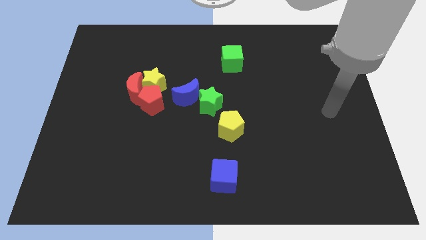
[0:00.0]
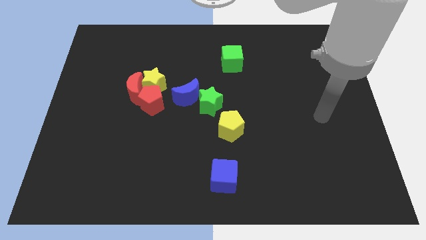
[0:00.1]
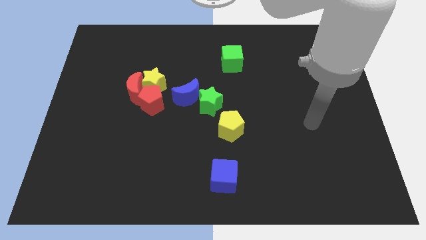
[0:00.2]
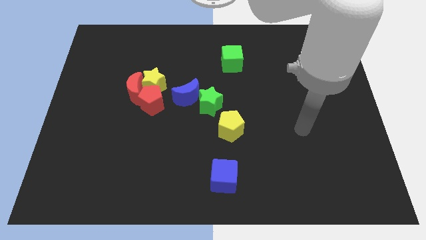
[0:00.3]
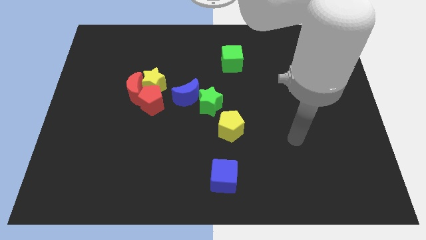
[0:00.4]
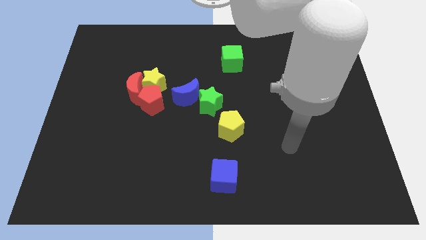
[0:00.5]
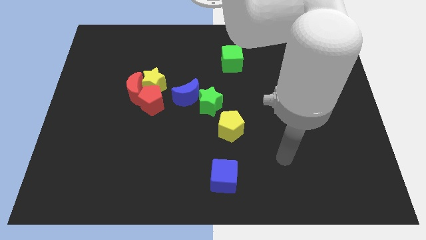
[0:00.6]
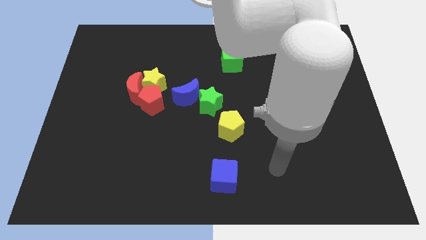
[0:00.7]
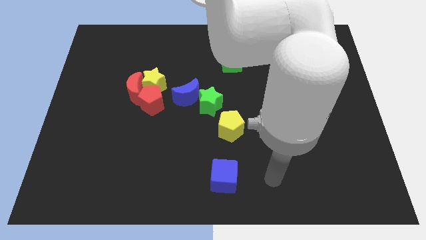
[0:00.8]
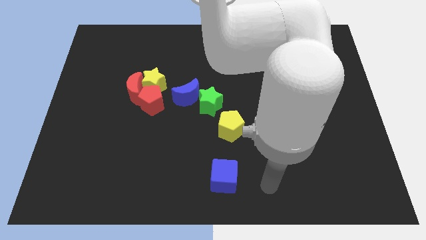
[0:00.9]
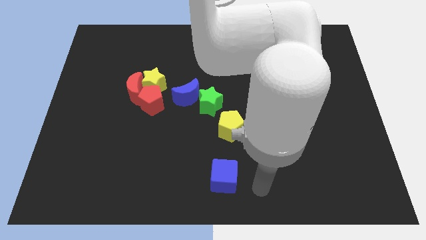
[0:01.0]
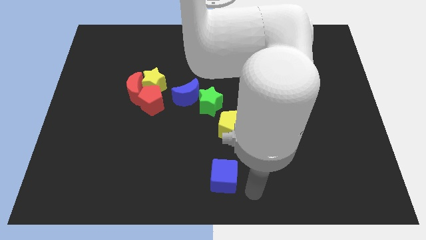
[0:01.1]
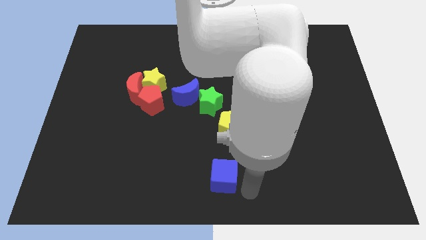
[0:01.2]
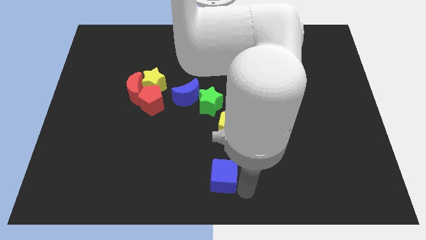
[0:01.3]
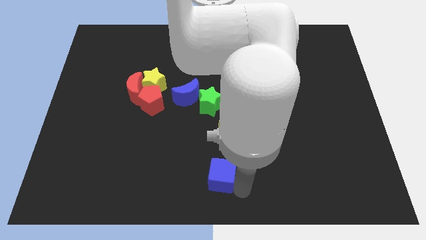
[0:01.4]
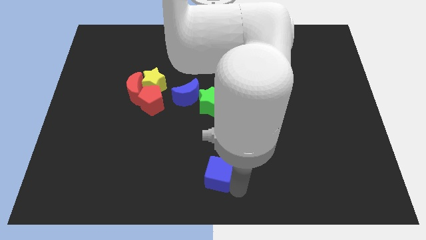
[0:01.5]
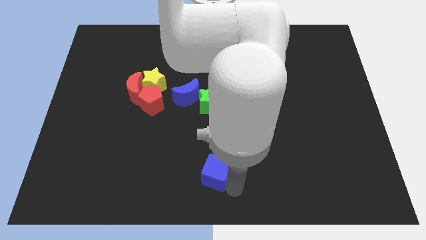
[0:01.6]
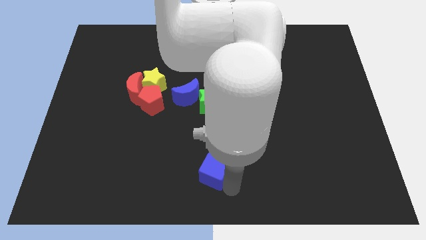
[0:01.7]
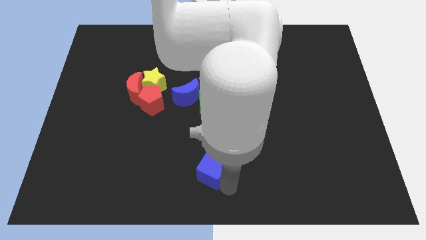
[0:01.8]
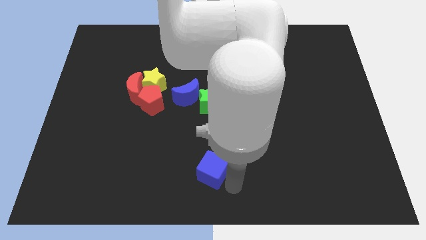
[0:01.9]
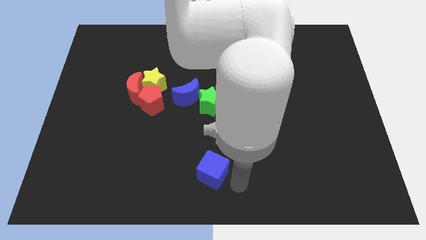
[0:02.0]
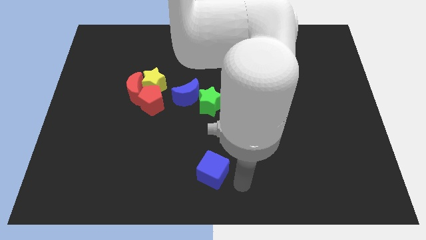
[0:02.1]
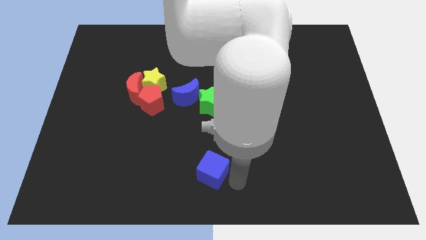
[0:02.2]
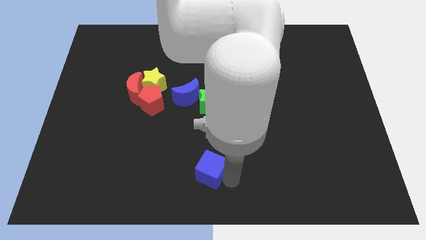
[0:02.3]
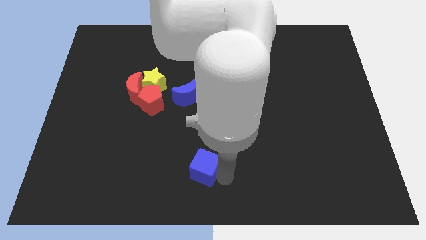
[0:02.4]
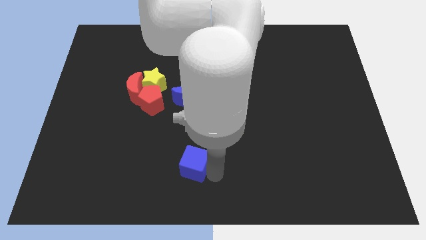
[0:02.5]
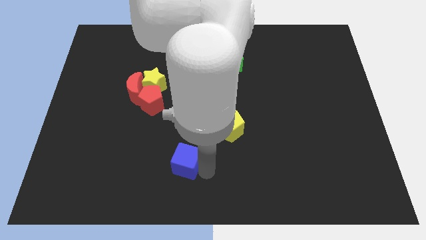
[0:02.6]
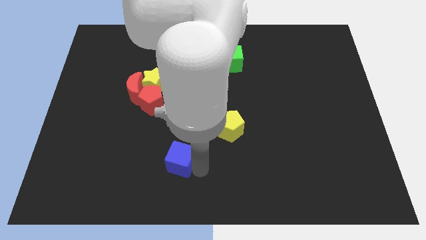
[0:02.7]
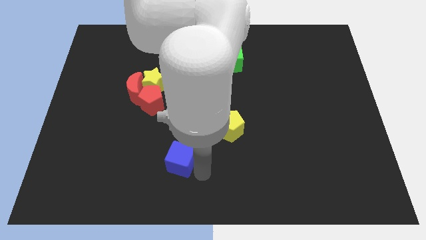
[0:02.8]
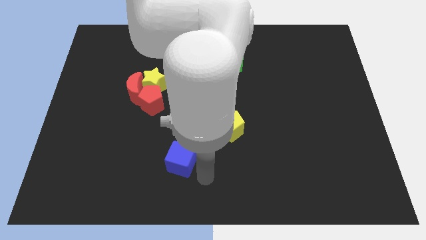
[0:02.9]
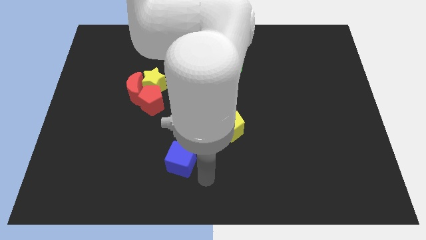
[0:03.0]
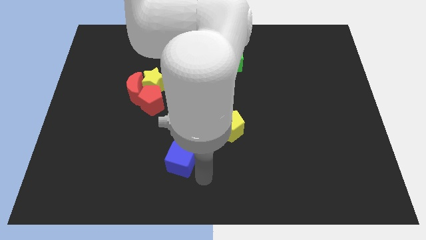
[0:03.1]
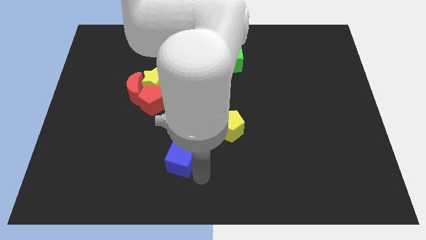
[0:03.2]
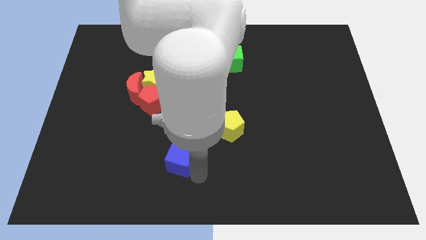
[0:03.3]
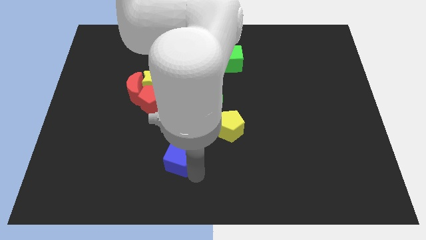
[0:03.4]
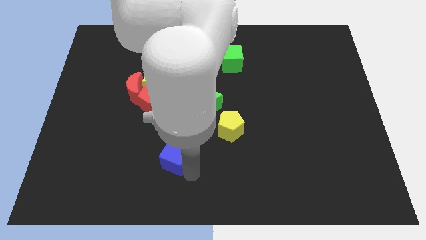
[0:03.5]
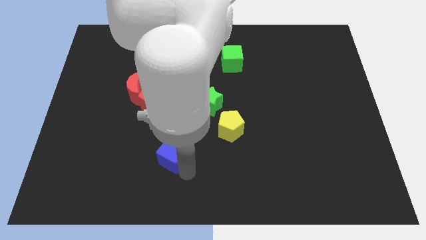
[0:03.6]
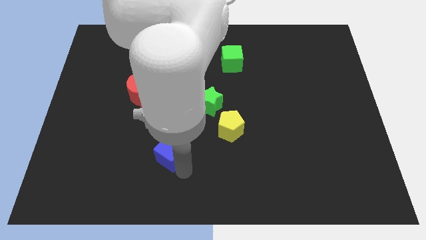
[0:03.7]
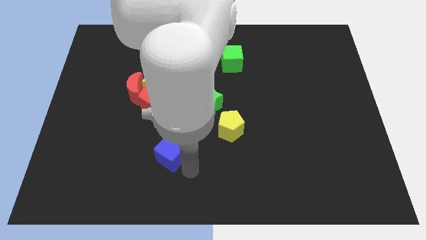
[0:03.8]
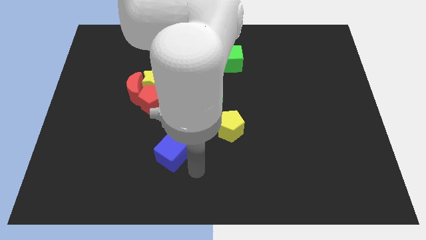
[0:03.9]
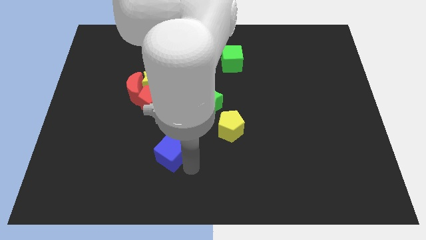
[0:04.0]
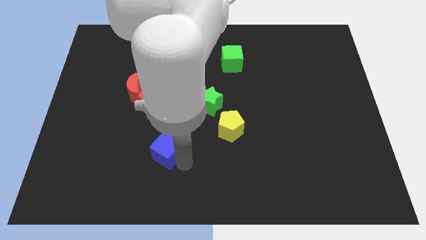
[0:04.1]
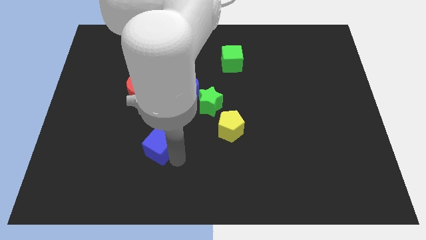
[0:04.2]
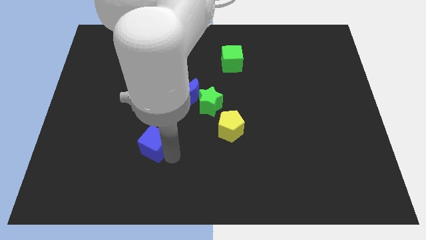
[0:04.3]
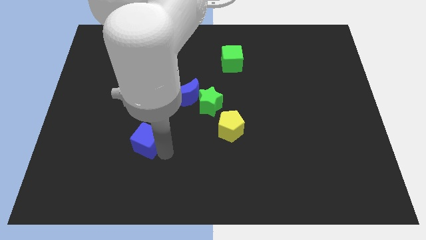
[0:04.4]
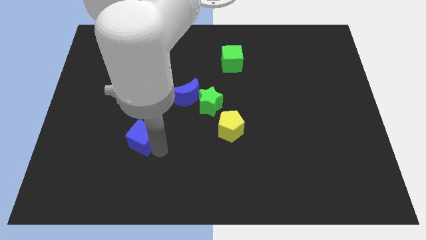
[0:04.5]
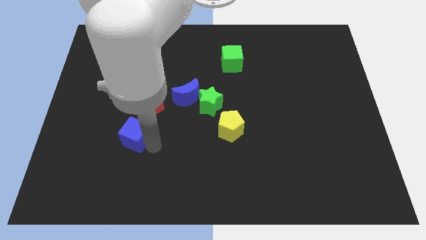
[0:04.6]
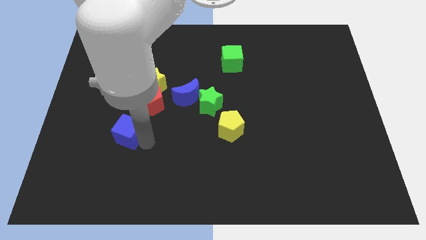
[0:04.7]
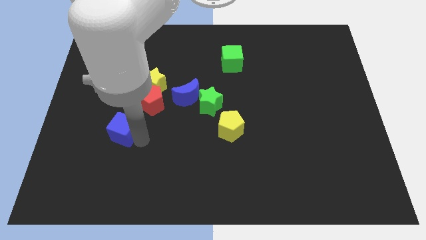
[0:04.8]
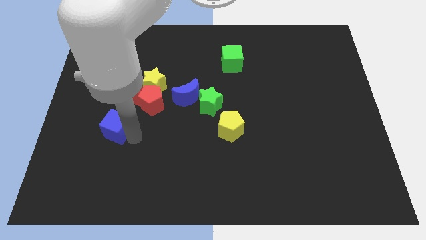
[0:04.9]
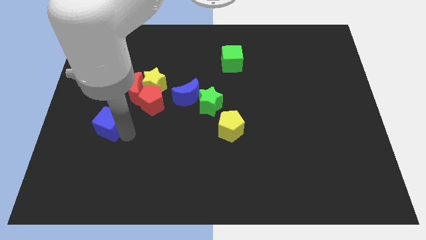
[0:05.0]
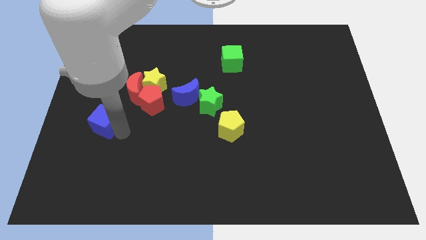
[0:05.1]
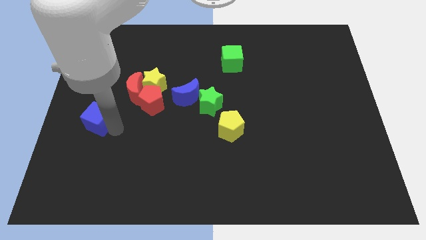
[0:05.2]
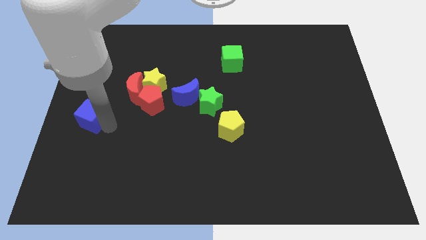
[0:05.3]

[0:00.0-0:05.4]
slide the blue cube to the left side of the board

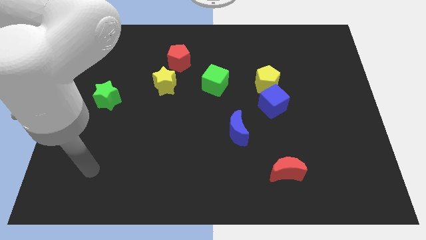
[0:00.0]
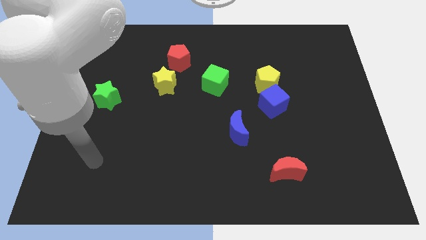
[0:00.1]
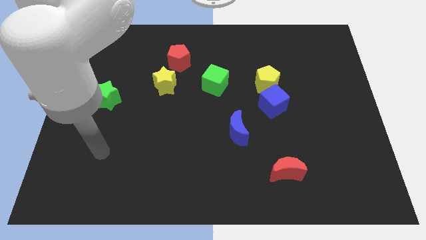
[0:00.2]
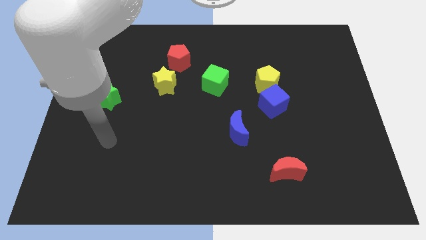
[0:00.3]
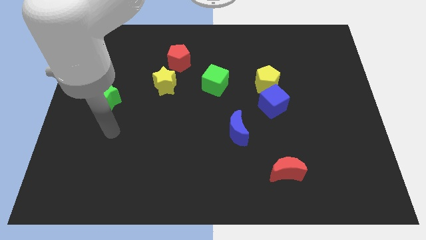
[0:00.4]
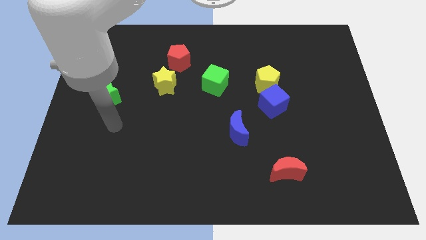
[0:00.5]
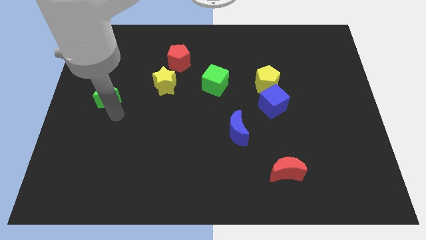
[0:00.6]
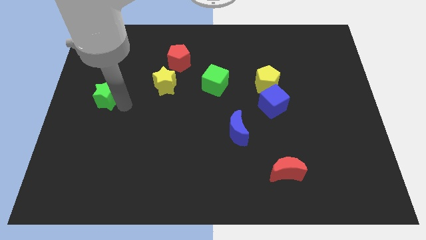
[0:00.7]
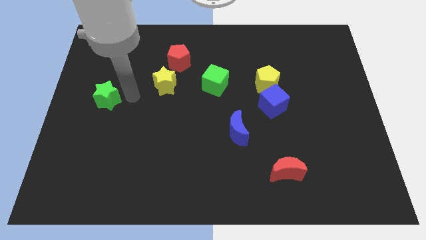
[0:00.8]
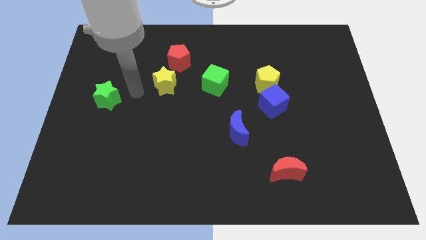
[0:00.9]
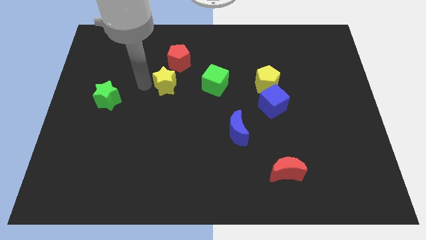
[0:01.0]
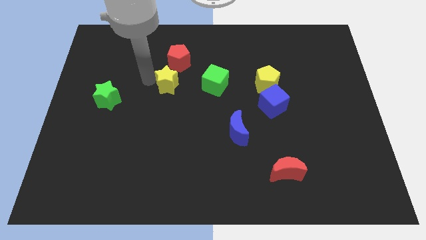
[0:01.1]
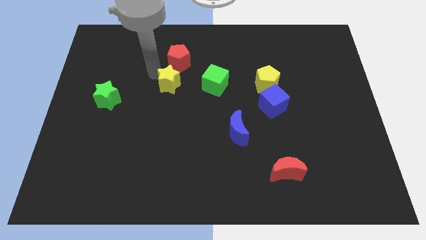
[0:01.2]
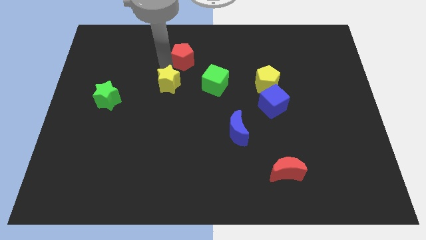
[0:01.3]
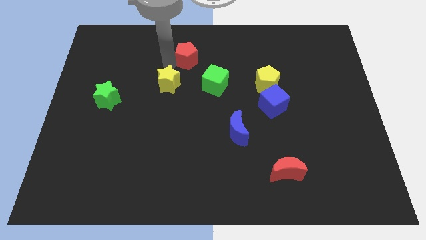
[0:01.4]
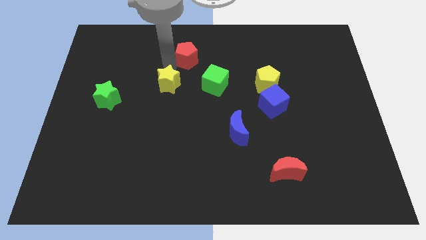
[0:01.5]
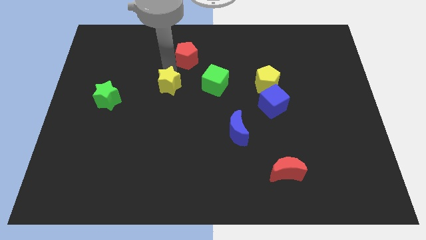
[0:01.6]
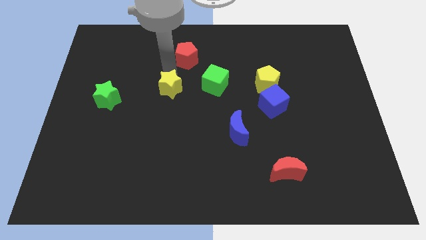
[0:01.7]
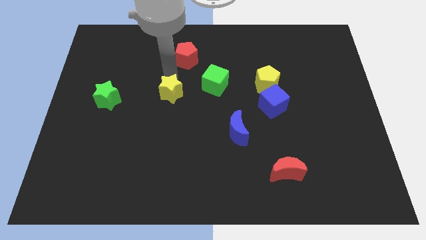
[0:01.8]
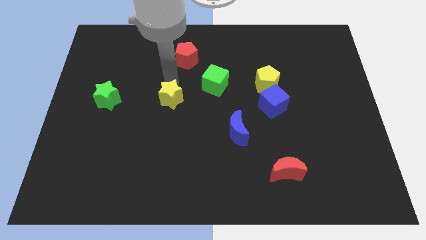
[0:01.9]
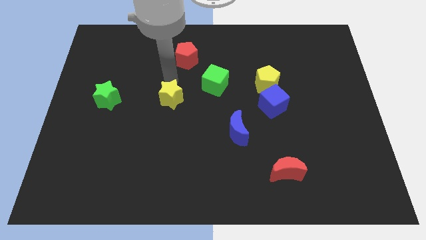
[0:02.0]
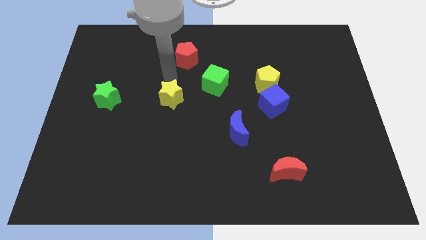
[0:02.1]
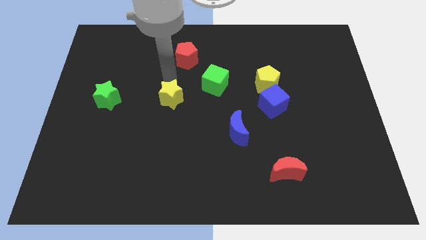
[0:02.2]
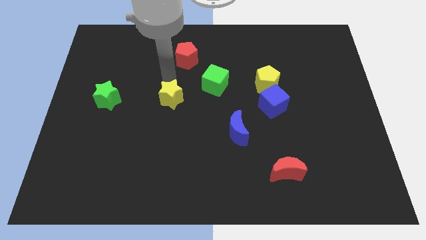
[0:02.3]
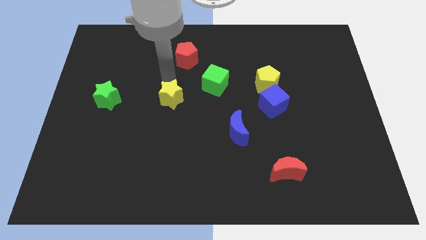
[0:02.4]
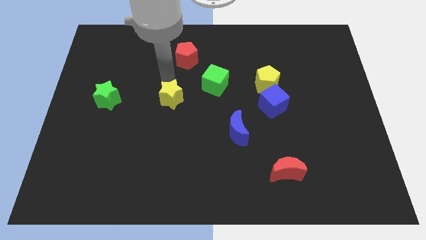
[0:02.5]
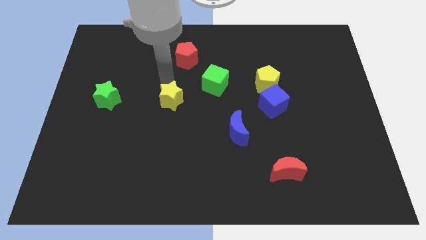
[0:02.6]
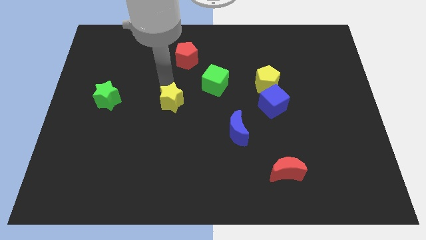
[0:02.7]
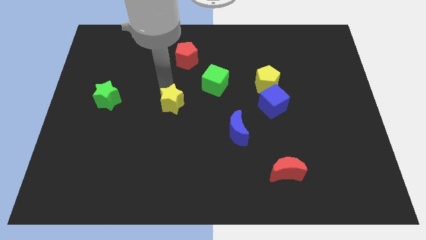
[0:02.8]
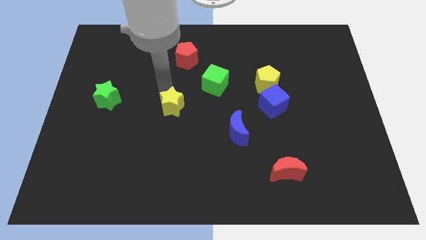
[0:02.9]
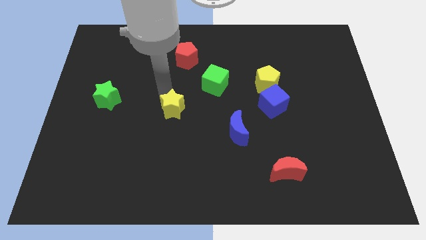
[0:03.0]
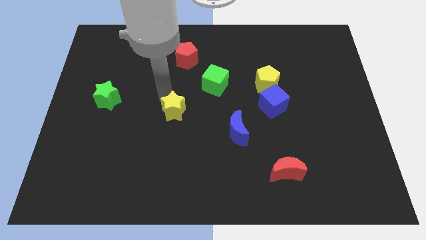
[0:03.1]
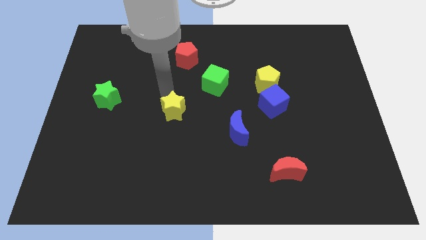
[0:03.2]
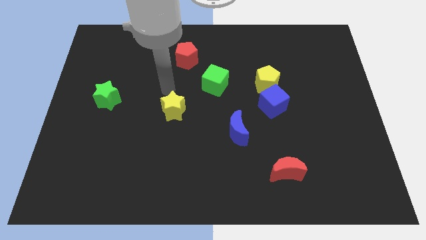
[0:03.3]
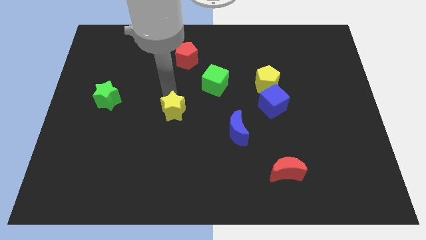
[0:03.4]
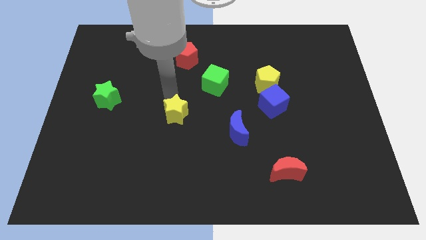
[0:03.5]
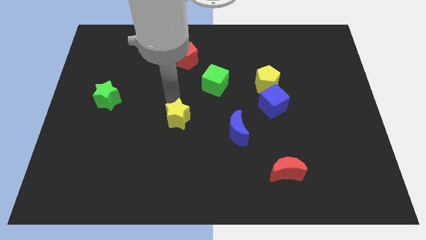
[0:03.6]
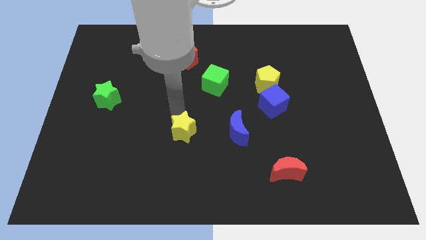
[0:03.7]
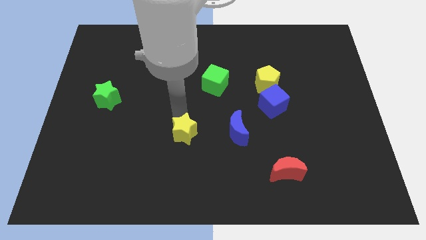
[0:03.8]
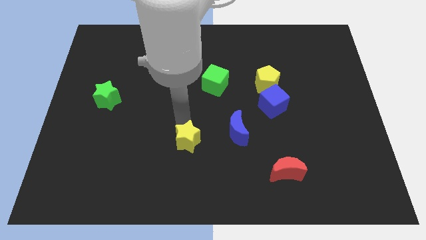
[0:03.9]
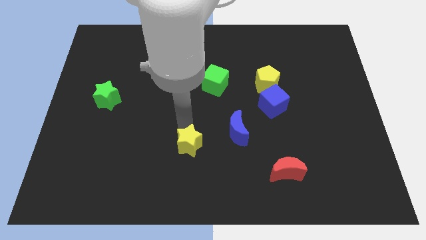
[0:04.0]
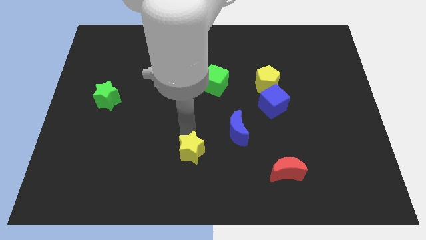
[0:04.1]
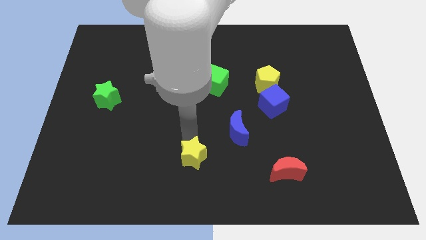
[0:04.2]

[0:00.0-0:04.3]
slide the yellow star to the bottom
